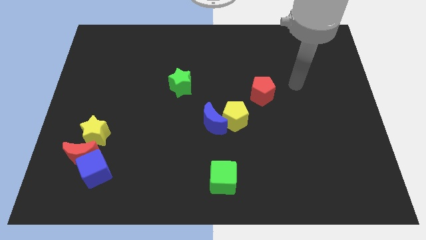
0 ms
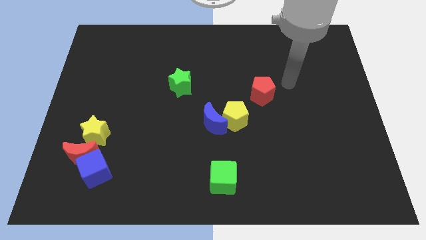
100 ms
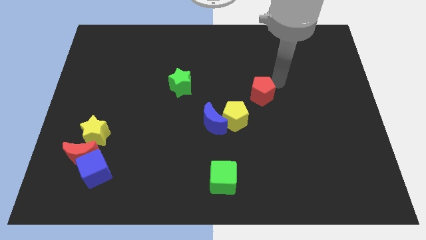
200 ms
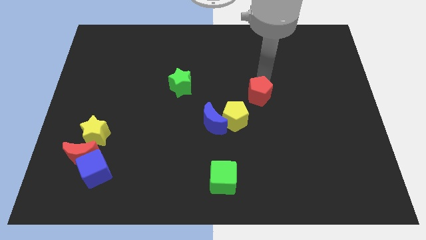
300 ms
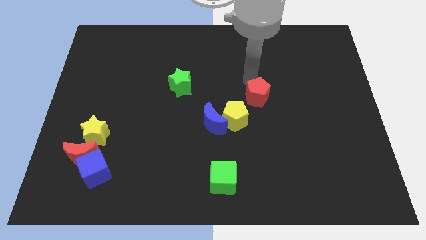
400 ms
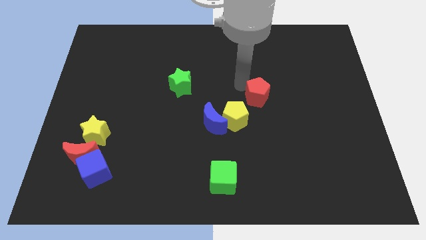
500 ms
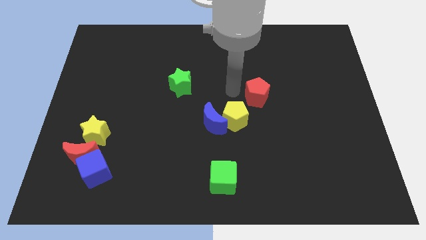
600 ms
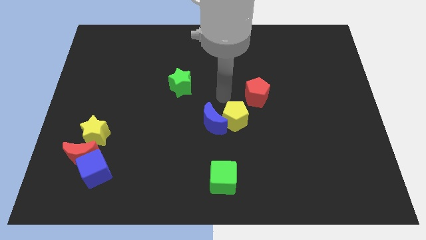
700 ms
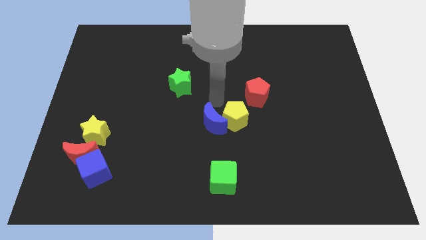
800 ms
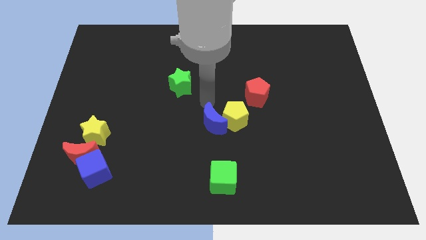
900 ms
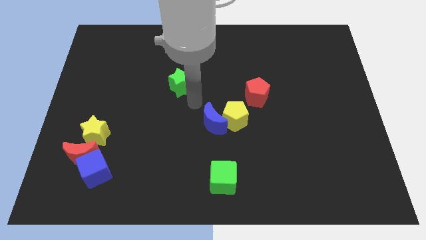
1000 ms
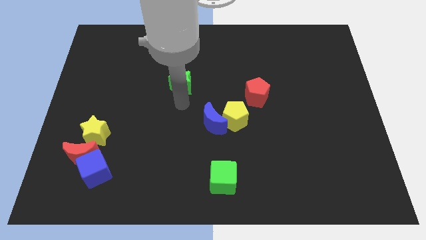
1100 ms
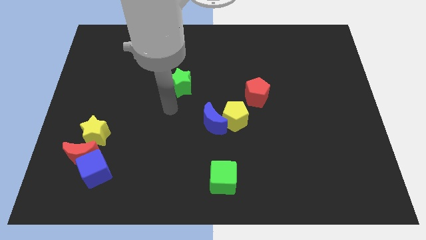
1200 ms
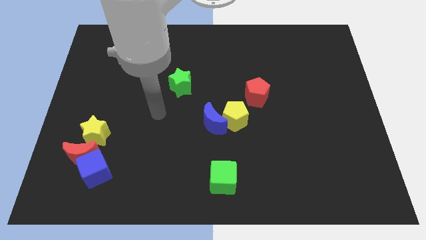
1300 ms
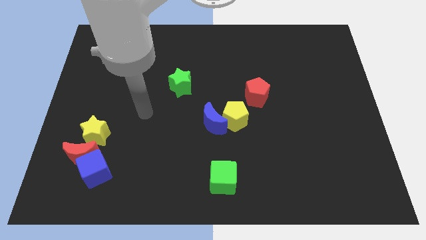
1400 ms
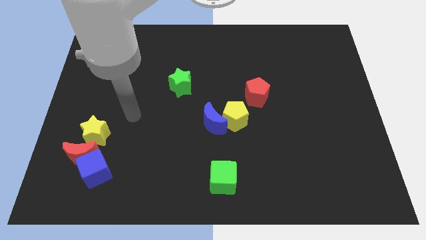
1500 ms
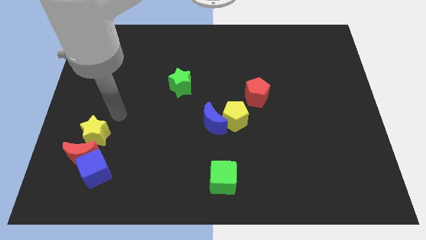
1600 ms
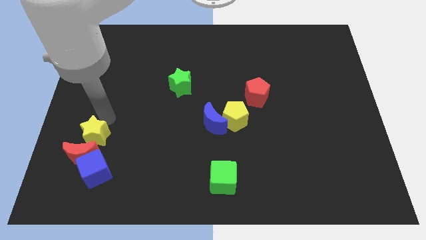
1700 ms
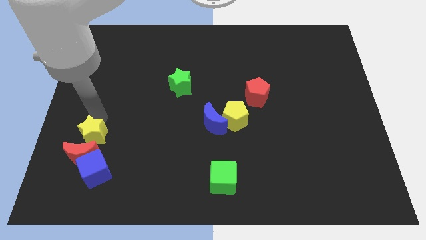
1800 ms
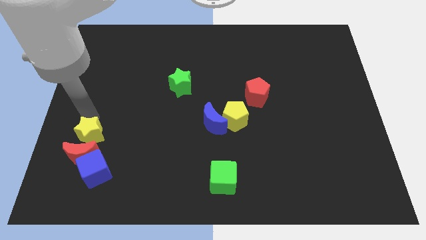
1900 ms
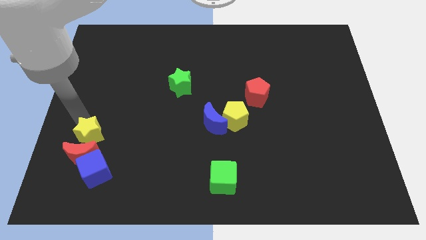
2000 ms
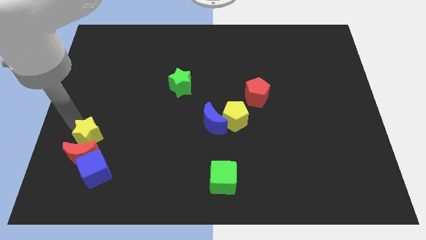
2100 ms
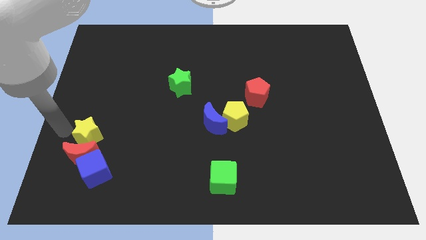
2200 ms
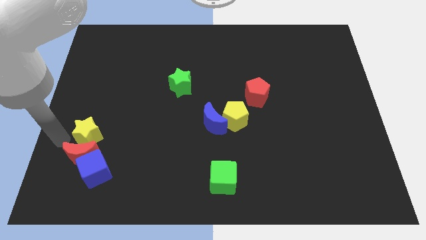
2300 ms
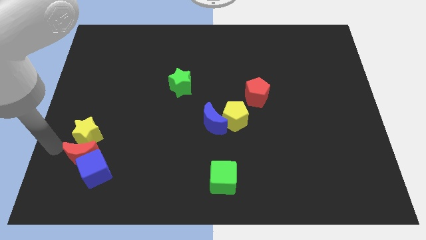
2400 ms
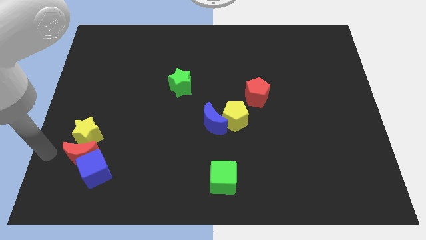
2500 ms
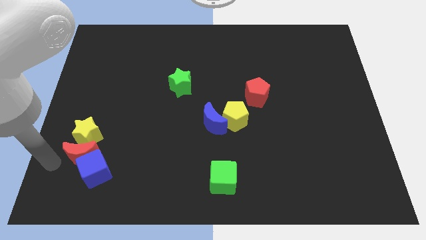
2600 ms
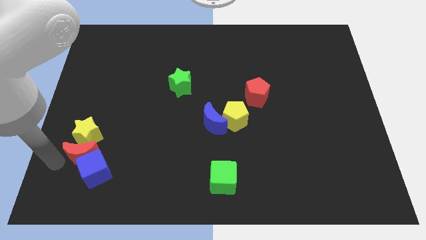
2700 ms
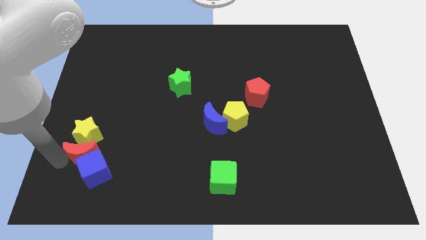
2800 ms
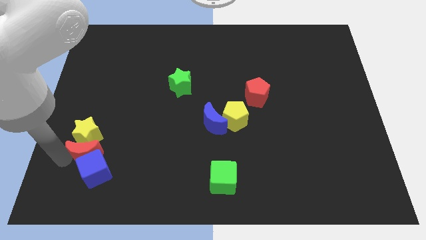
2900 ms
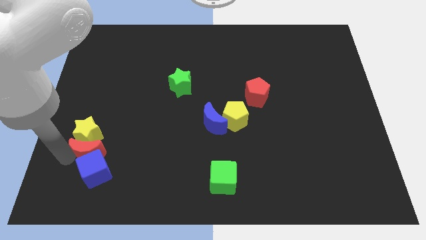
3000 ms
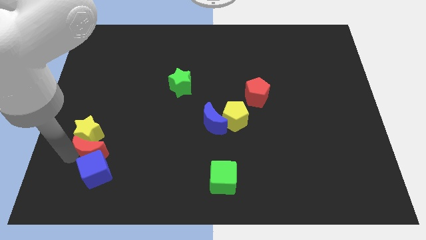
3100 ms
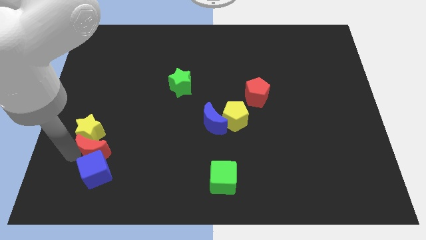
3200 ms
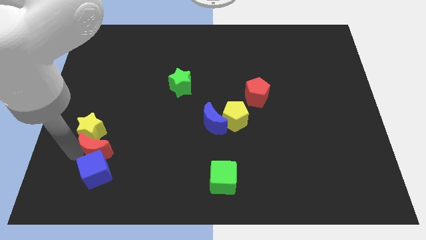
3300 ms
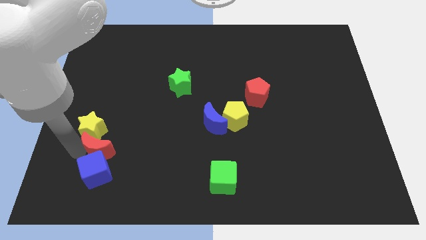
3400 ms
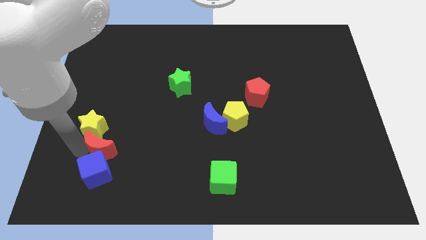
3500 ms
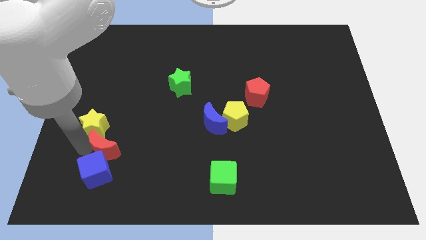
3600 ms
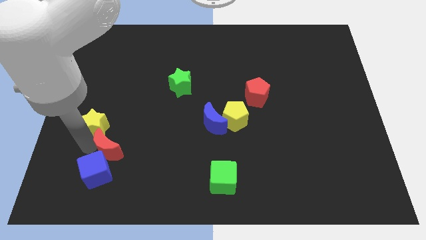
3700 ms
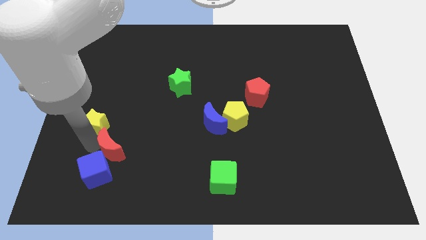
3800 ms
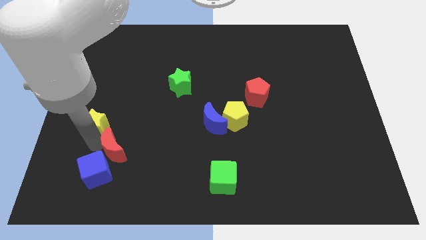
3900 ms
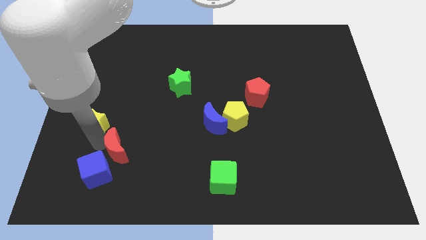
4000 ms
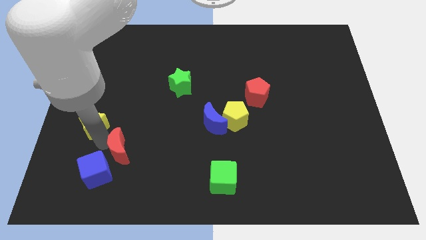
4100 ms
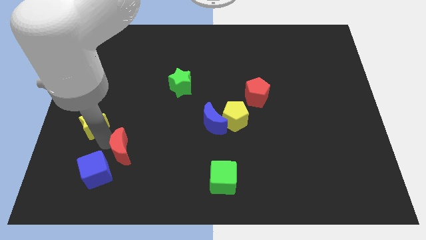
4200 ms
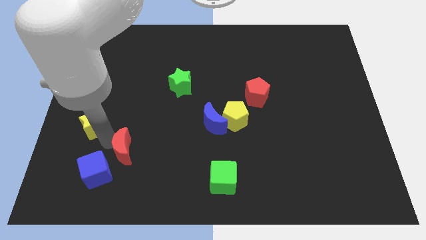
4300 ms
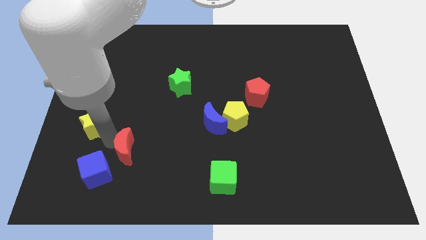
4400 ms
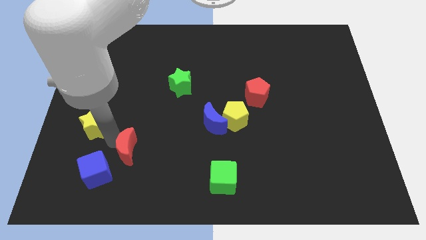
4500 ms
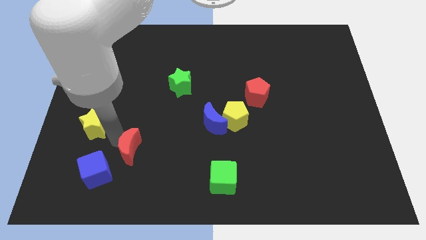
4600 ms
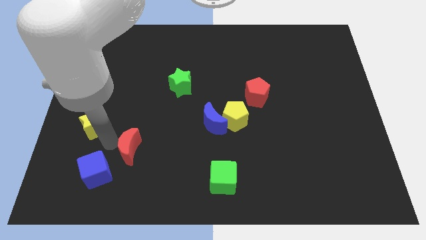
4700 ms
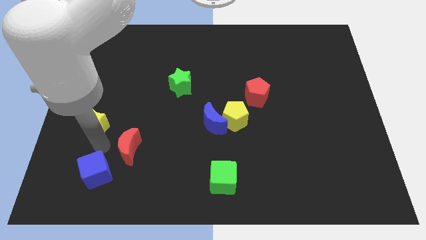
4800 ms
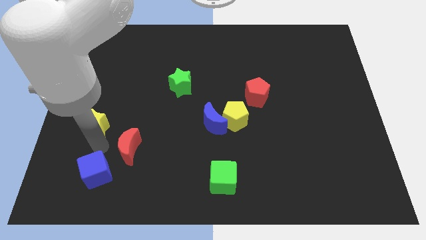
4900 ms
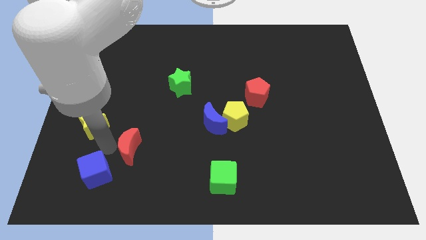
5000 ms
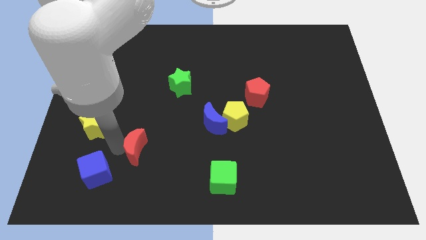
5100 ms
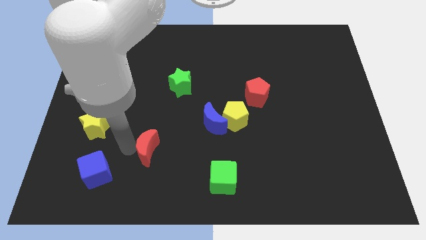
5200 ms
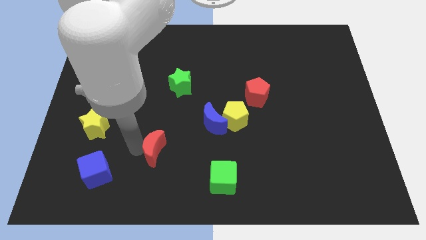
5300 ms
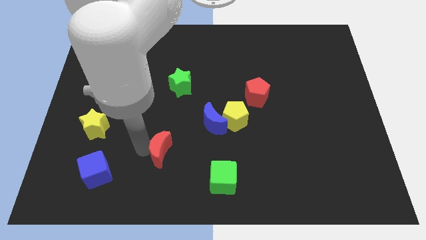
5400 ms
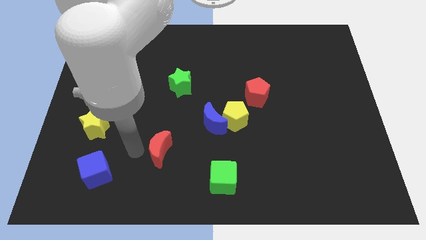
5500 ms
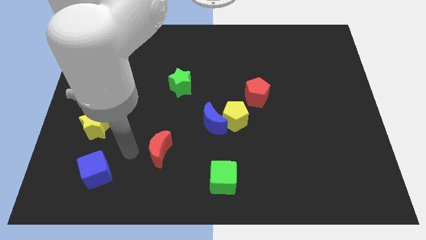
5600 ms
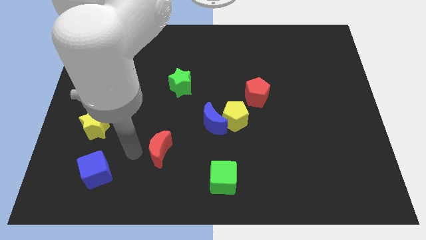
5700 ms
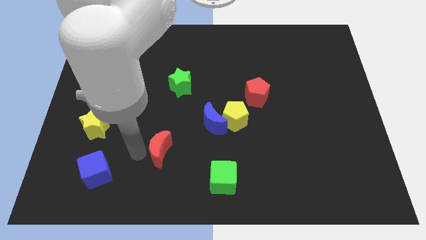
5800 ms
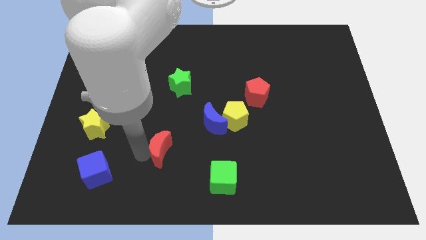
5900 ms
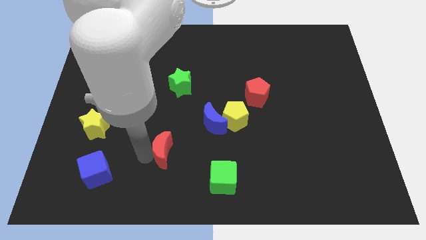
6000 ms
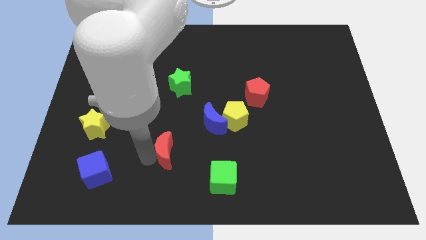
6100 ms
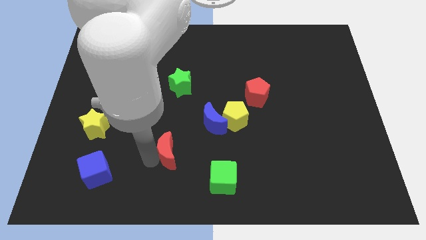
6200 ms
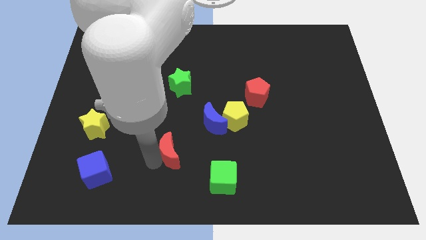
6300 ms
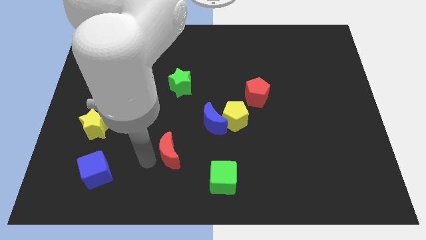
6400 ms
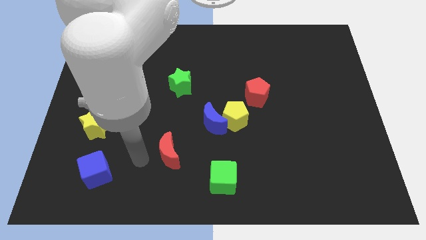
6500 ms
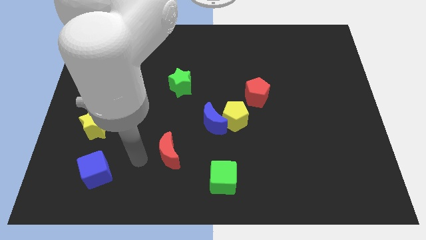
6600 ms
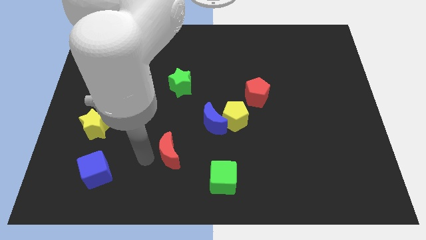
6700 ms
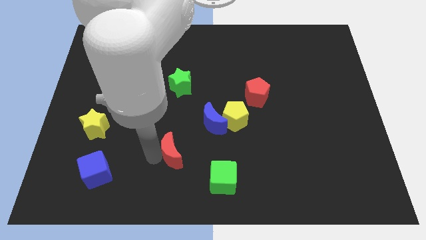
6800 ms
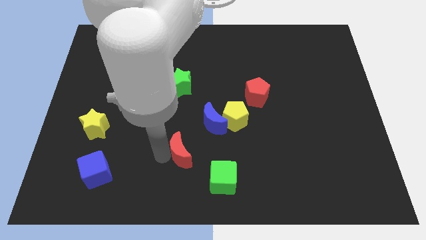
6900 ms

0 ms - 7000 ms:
push the red moon right

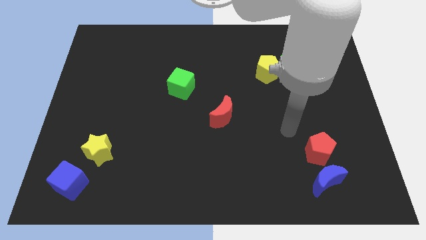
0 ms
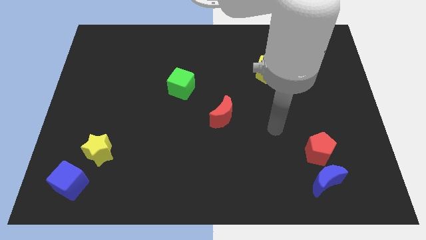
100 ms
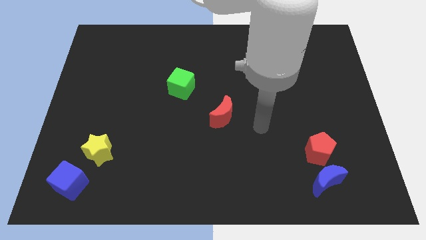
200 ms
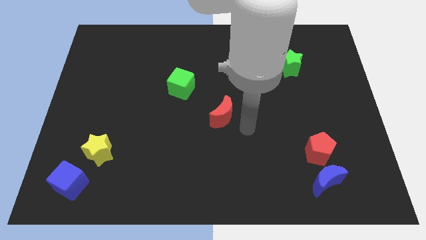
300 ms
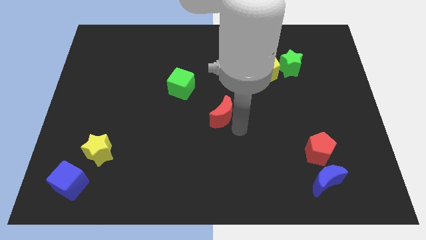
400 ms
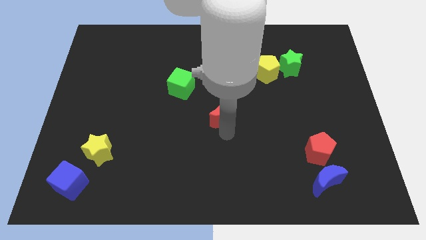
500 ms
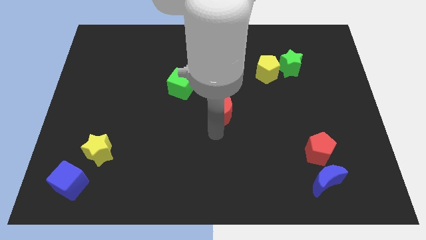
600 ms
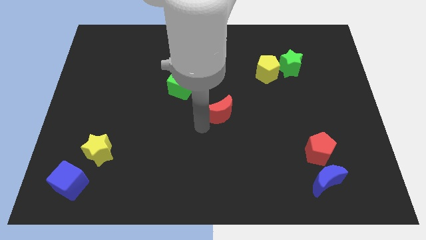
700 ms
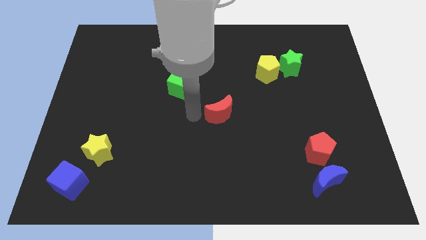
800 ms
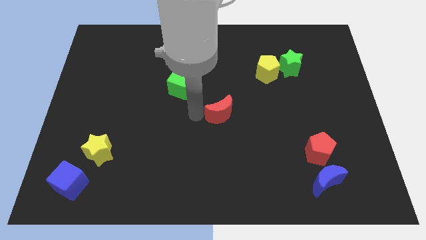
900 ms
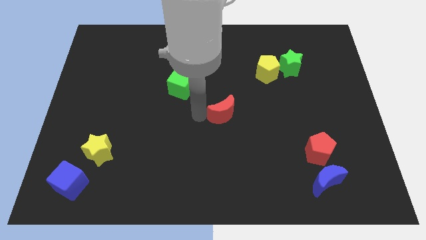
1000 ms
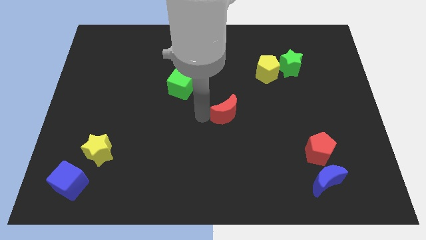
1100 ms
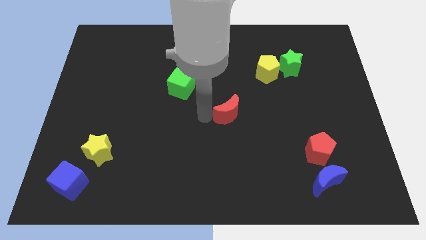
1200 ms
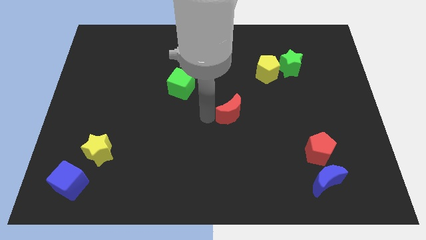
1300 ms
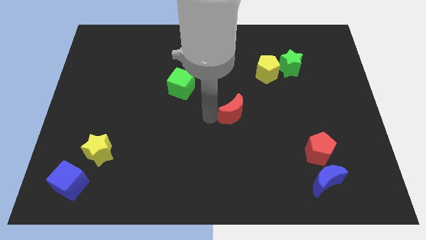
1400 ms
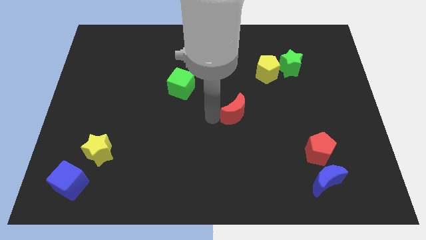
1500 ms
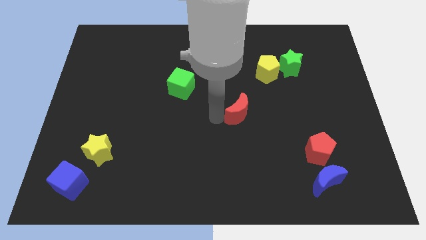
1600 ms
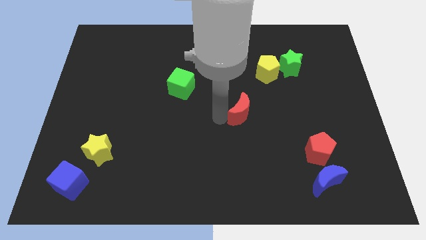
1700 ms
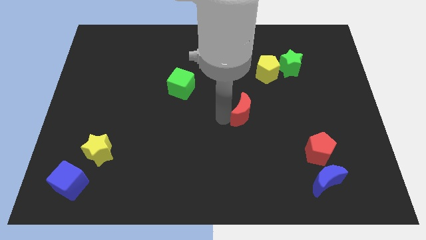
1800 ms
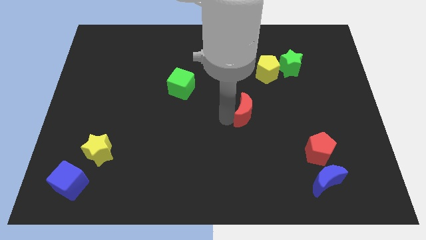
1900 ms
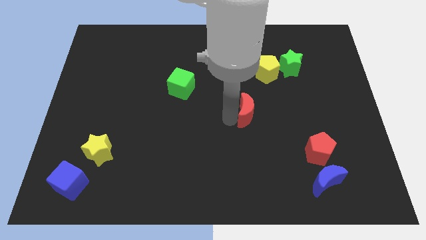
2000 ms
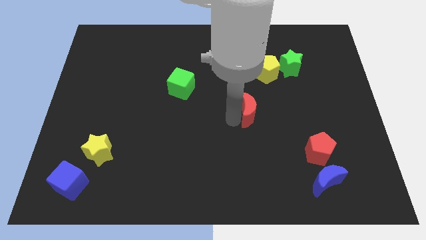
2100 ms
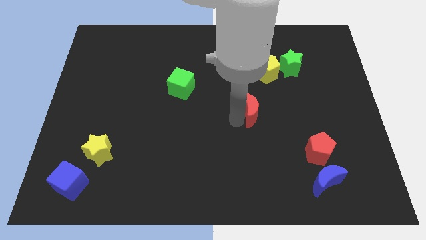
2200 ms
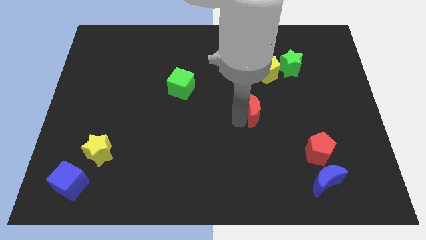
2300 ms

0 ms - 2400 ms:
push the red moon right a little bit
